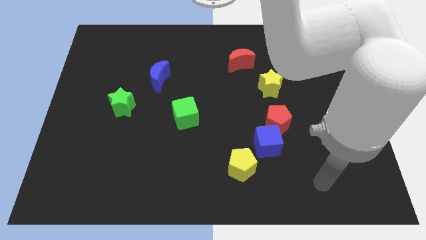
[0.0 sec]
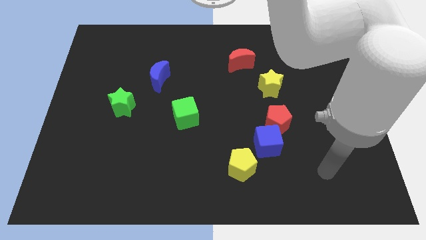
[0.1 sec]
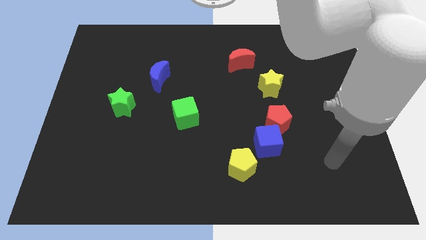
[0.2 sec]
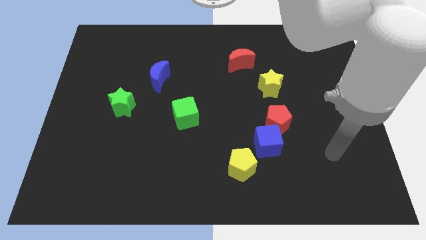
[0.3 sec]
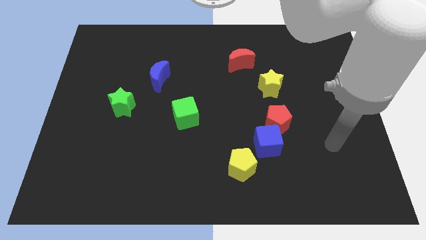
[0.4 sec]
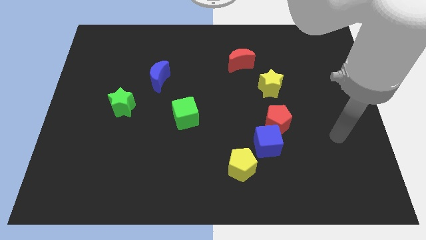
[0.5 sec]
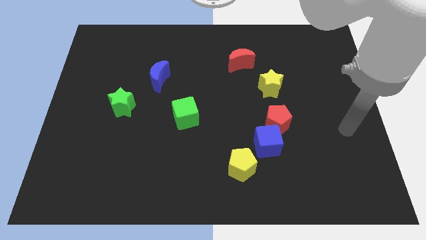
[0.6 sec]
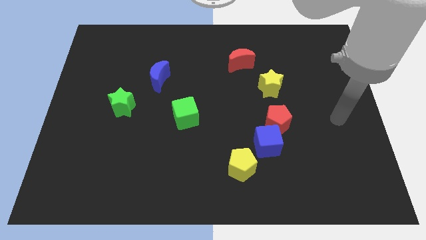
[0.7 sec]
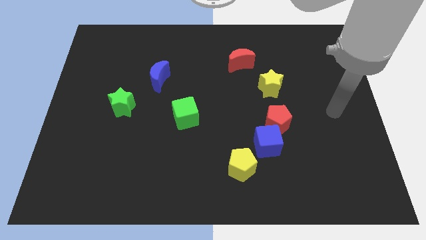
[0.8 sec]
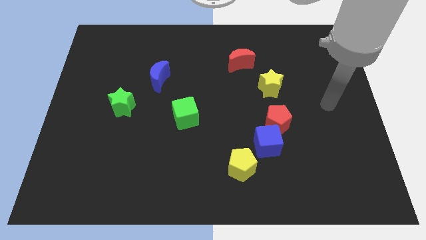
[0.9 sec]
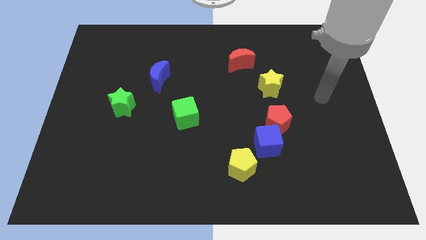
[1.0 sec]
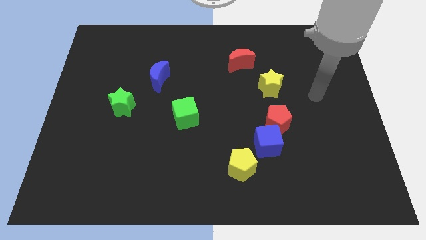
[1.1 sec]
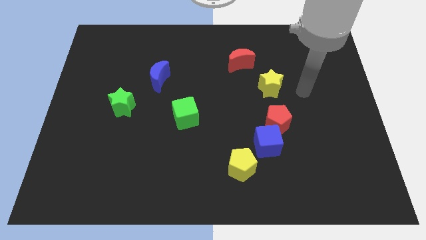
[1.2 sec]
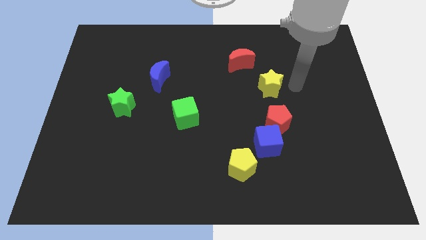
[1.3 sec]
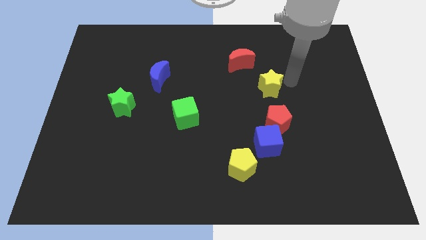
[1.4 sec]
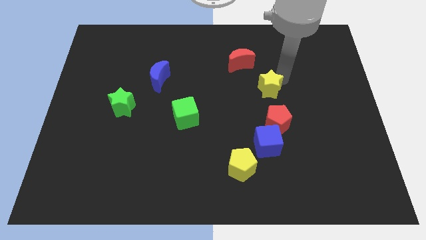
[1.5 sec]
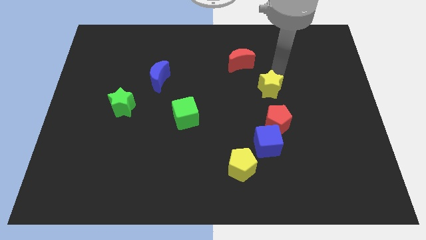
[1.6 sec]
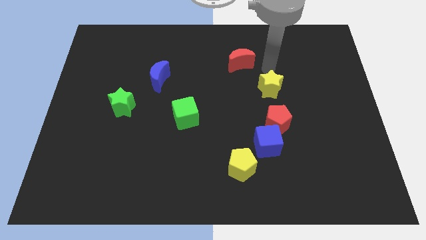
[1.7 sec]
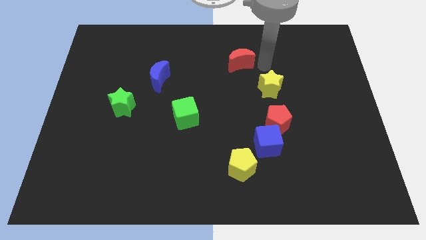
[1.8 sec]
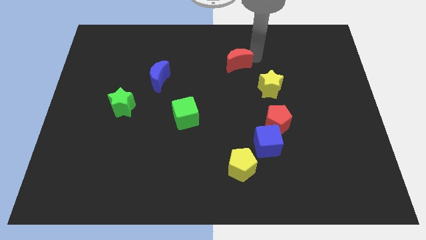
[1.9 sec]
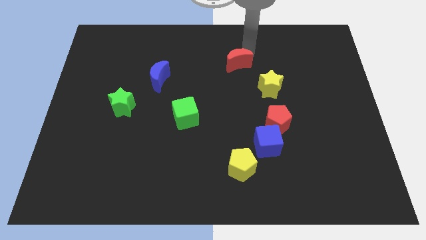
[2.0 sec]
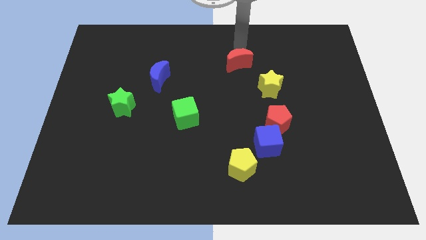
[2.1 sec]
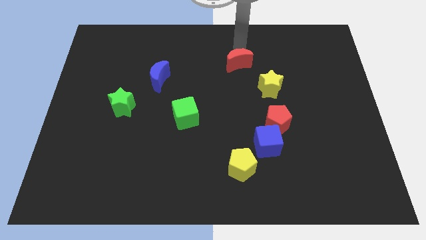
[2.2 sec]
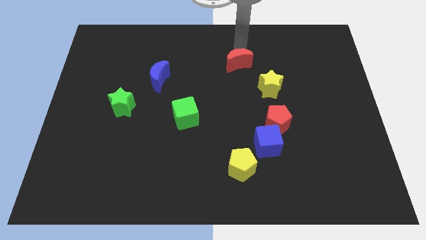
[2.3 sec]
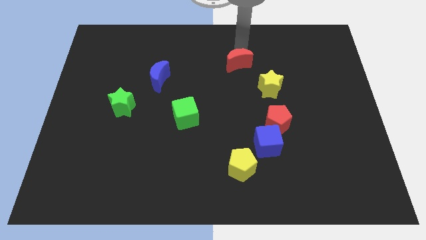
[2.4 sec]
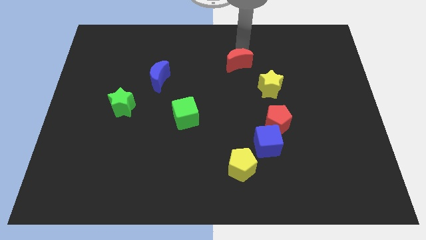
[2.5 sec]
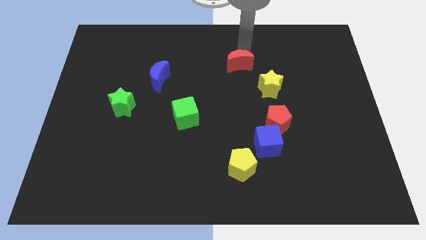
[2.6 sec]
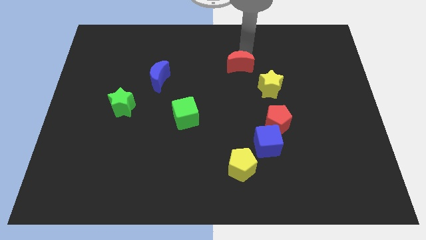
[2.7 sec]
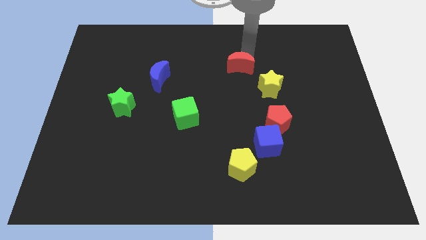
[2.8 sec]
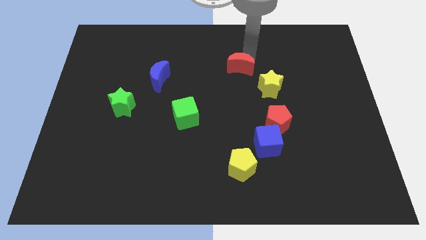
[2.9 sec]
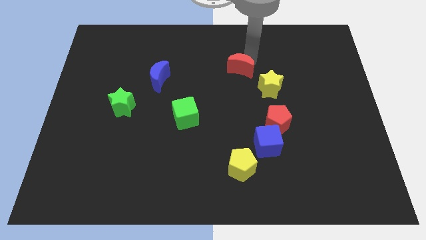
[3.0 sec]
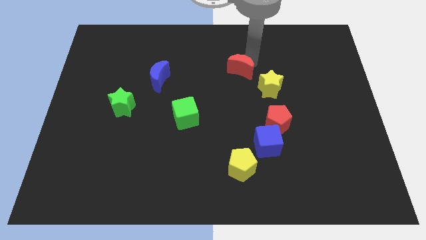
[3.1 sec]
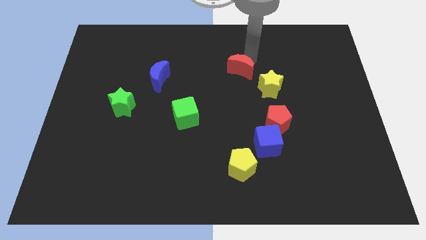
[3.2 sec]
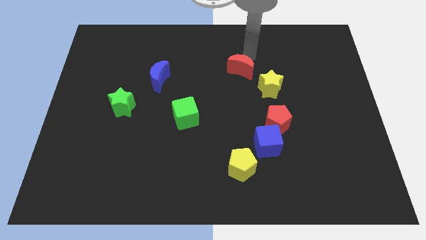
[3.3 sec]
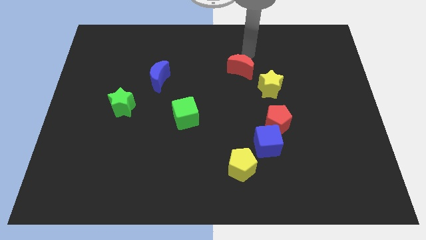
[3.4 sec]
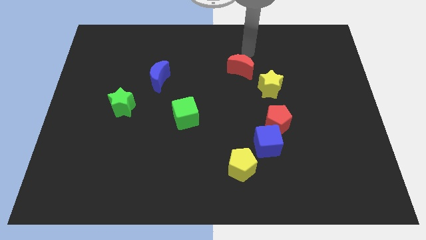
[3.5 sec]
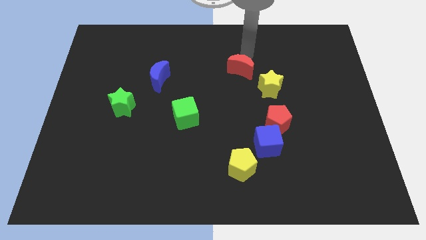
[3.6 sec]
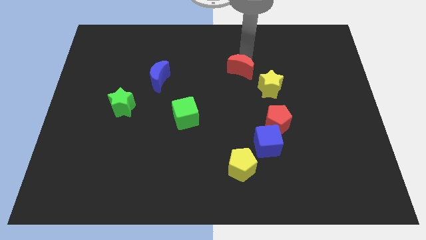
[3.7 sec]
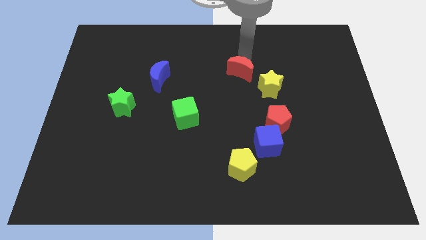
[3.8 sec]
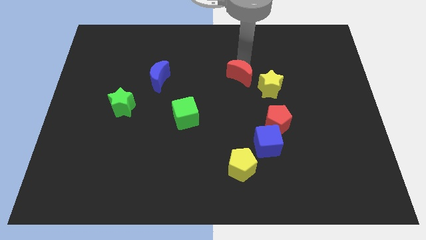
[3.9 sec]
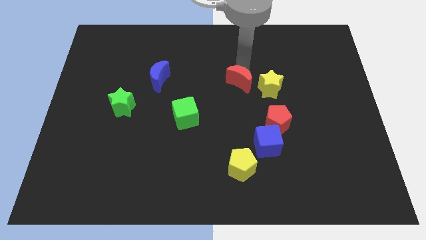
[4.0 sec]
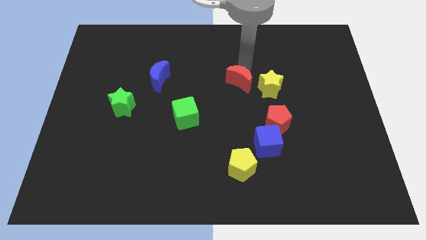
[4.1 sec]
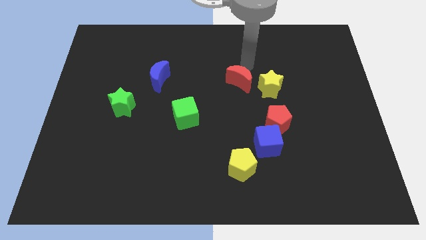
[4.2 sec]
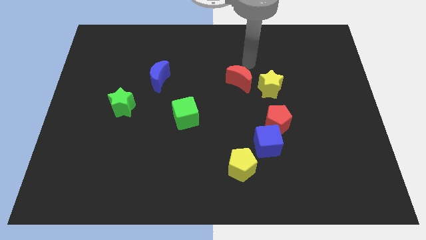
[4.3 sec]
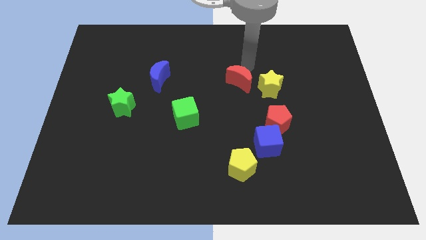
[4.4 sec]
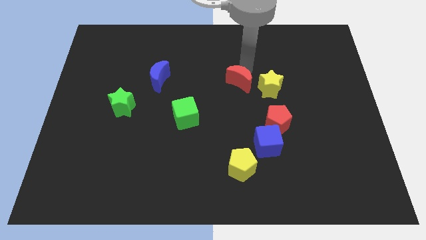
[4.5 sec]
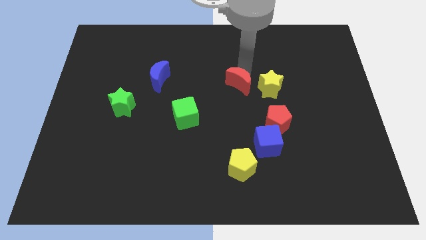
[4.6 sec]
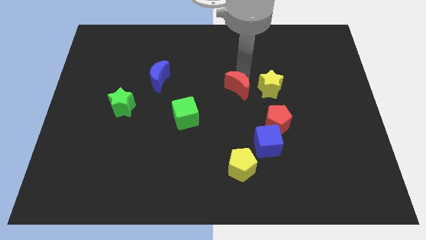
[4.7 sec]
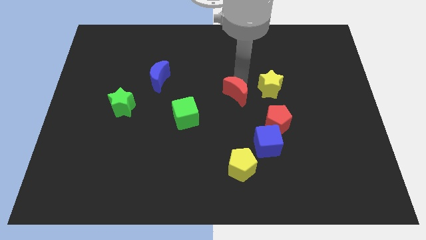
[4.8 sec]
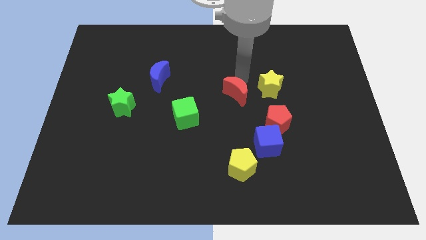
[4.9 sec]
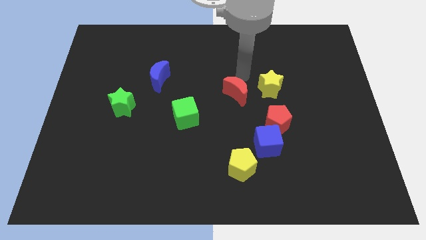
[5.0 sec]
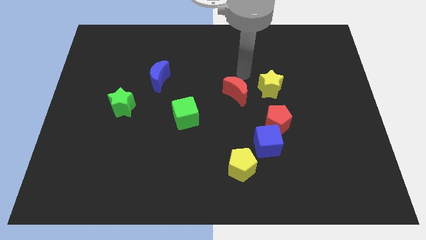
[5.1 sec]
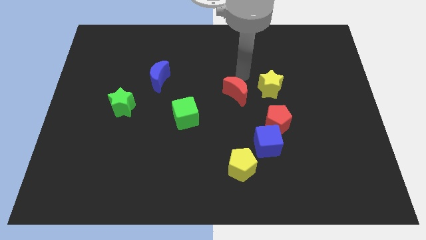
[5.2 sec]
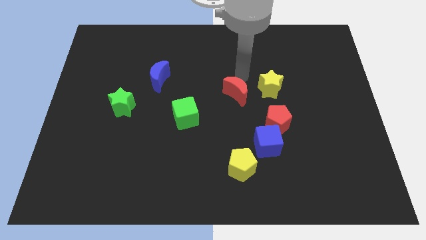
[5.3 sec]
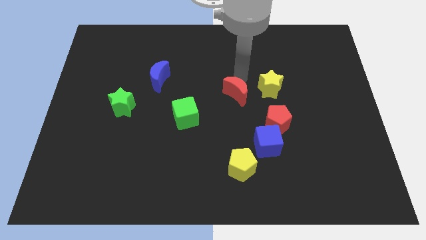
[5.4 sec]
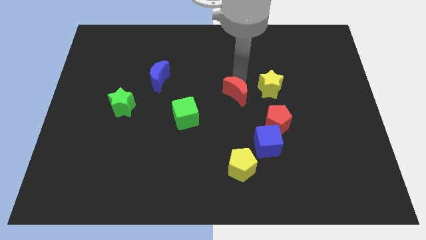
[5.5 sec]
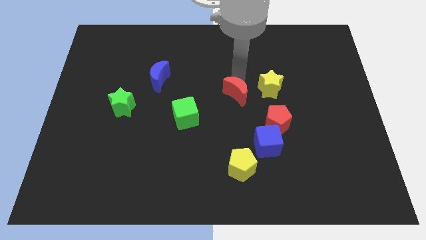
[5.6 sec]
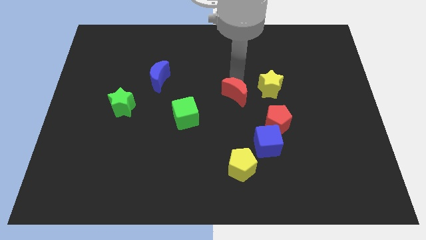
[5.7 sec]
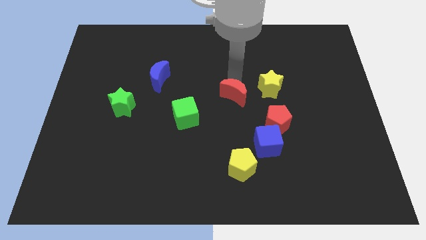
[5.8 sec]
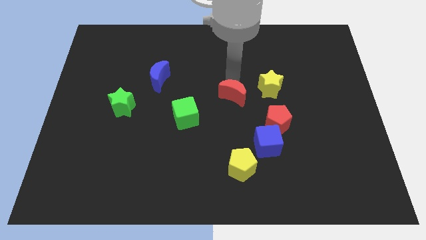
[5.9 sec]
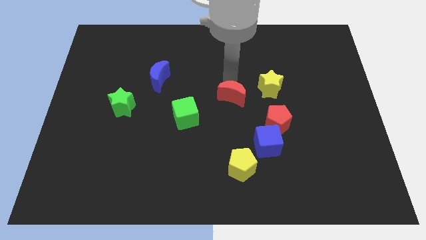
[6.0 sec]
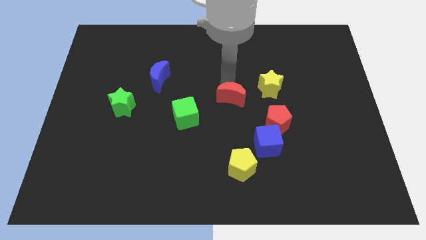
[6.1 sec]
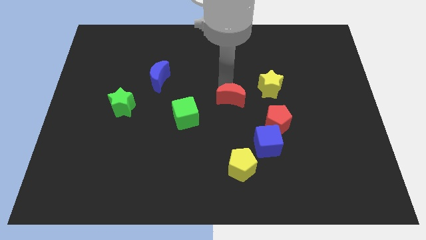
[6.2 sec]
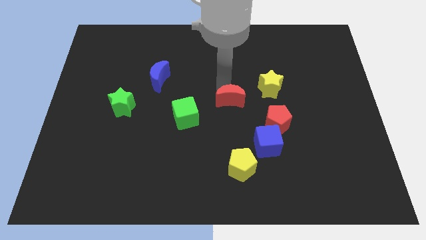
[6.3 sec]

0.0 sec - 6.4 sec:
slide the red moon right of the green cube

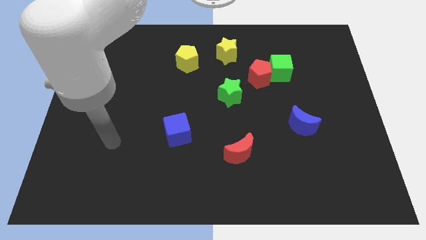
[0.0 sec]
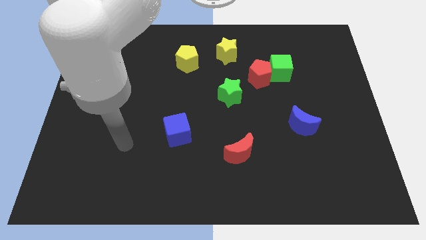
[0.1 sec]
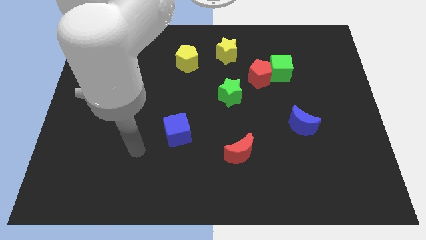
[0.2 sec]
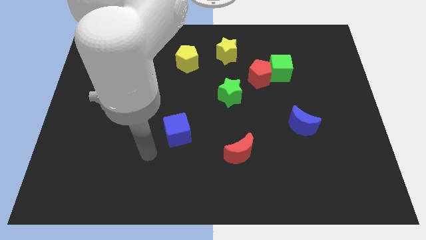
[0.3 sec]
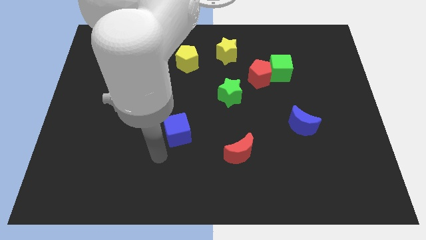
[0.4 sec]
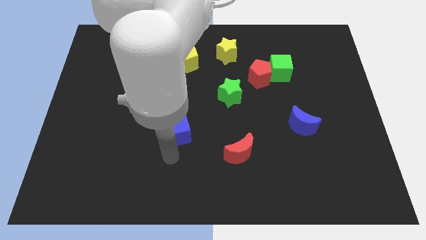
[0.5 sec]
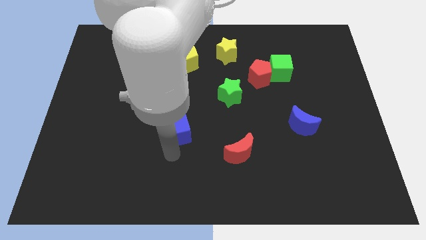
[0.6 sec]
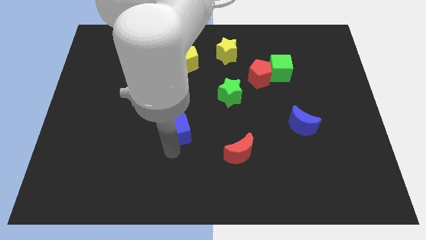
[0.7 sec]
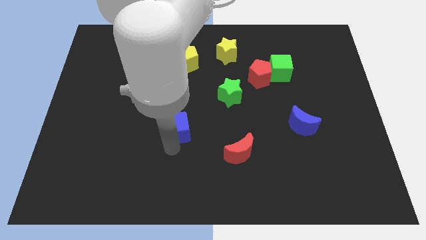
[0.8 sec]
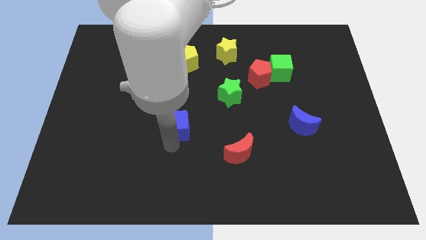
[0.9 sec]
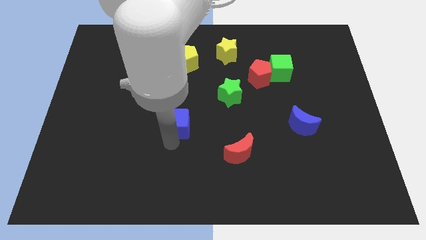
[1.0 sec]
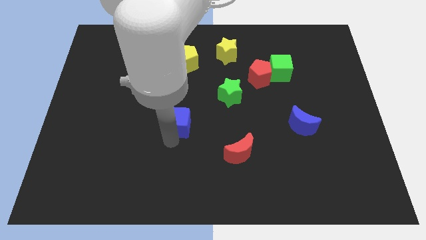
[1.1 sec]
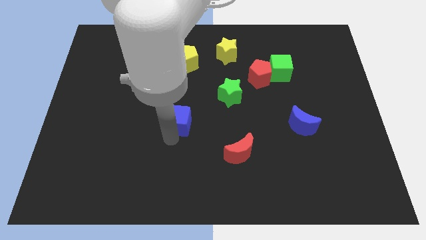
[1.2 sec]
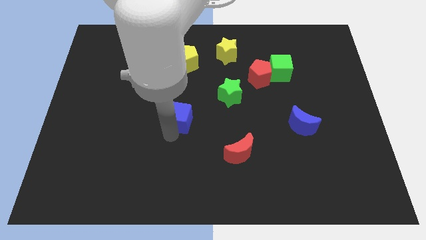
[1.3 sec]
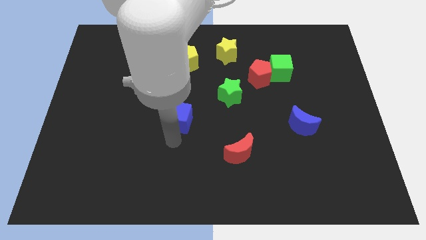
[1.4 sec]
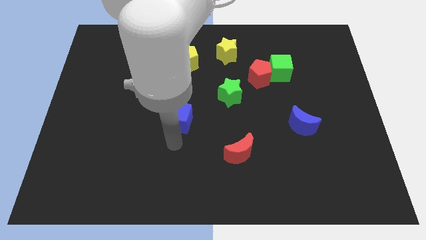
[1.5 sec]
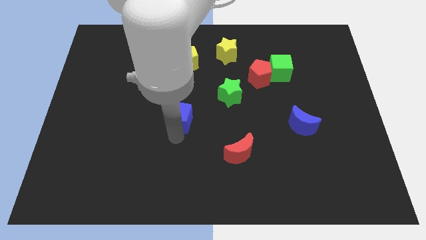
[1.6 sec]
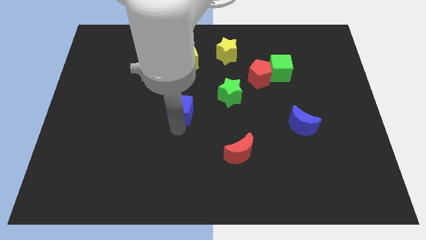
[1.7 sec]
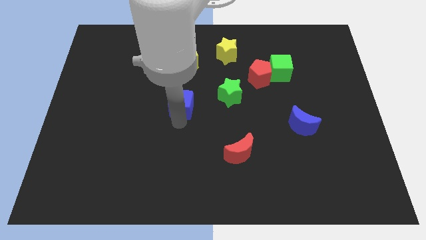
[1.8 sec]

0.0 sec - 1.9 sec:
put the blue cube below the yellow pentagon
